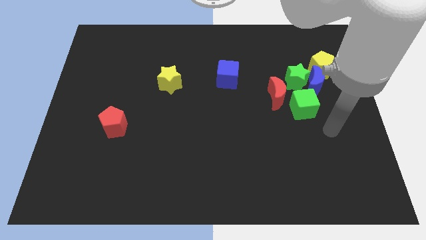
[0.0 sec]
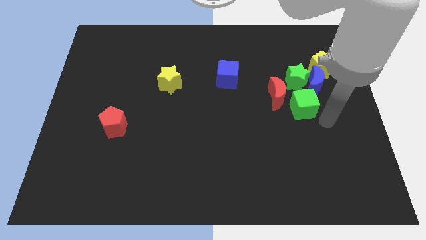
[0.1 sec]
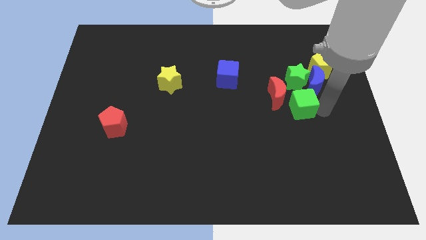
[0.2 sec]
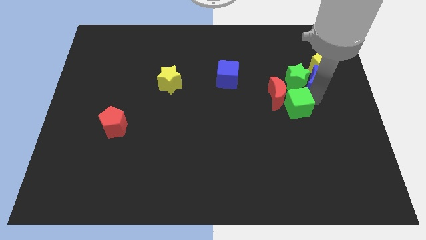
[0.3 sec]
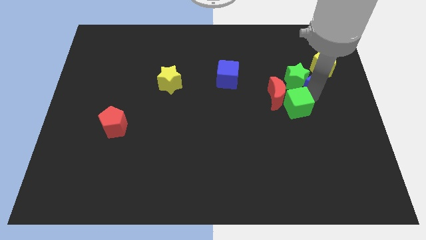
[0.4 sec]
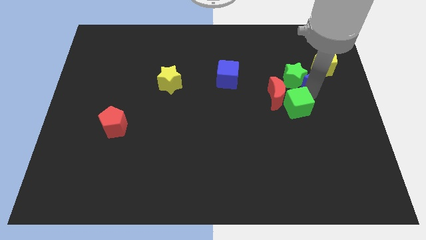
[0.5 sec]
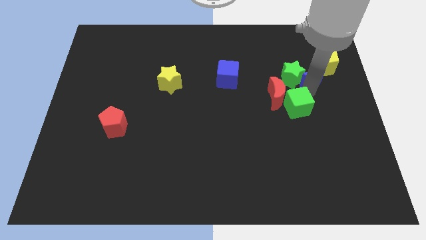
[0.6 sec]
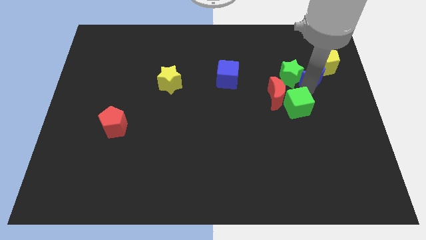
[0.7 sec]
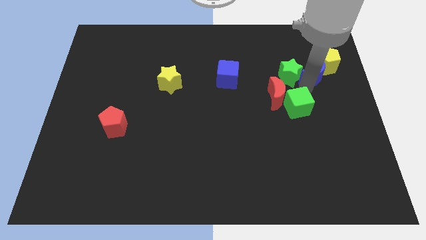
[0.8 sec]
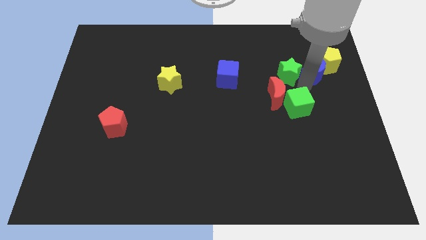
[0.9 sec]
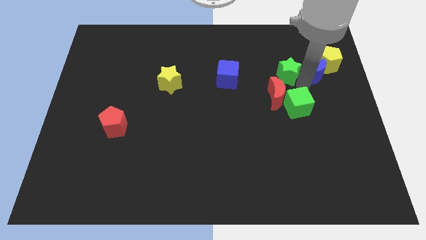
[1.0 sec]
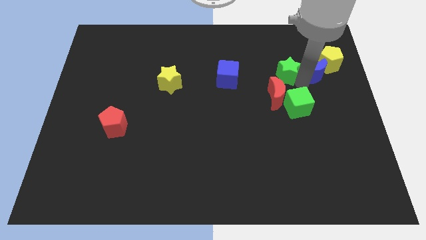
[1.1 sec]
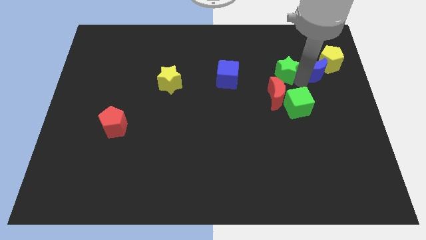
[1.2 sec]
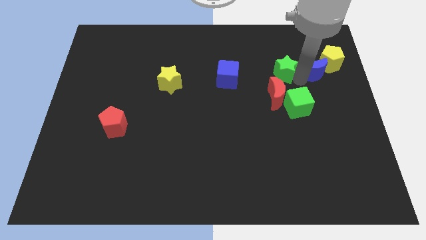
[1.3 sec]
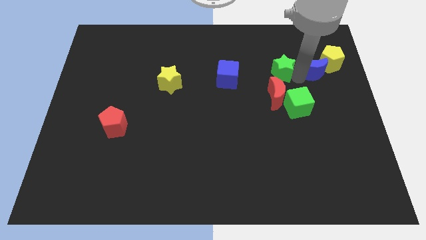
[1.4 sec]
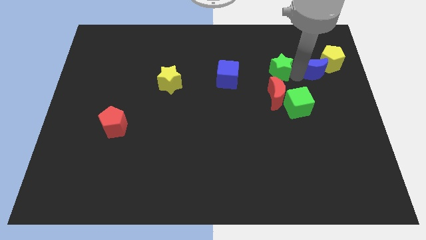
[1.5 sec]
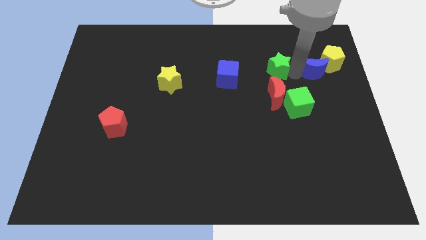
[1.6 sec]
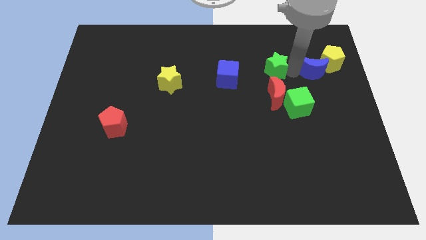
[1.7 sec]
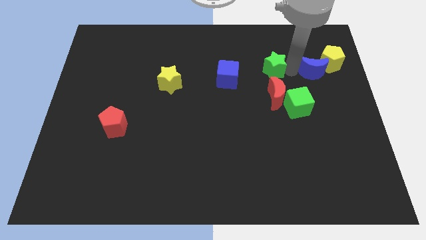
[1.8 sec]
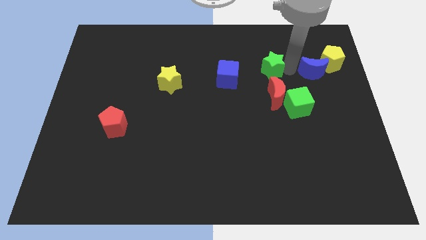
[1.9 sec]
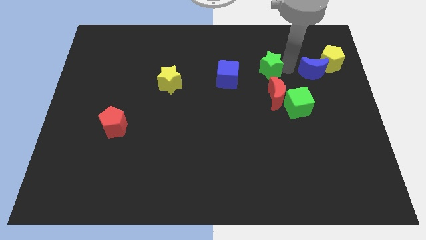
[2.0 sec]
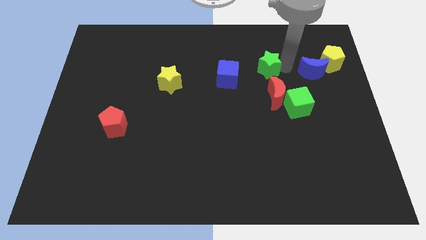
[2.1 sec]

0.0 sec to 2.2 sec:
separate the green star from the clump

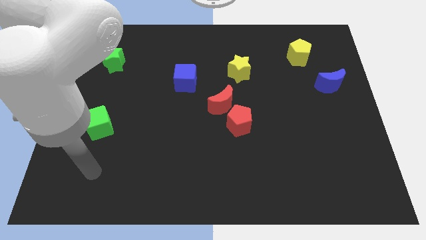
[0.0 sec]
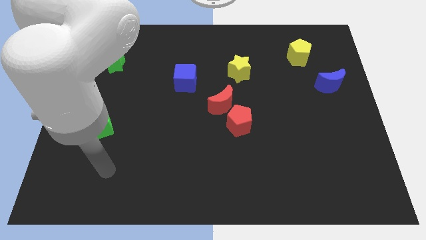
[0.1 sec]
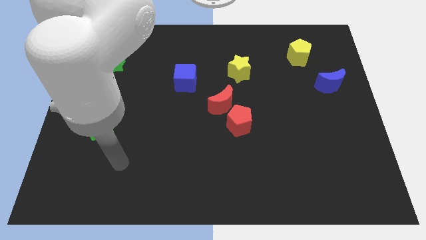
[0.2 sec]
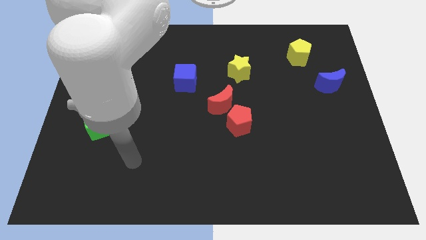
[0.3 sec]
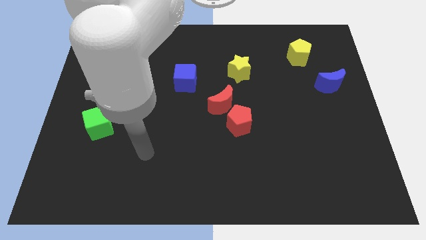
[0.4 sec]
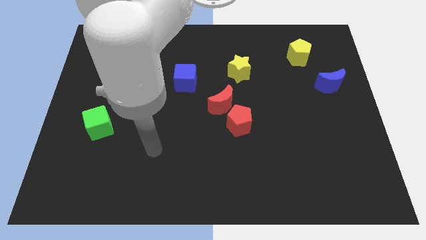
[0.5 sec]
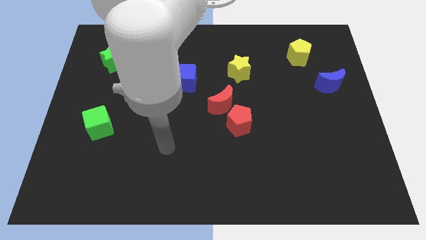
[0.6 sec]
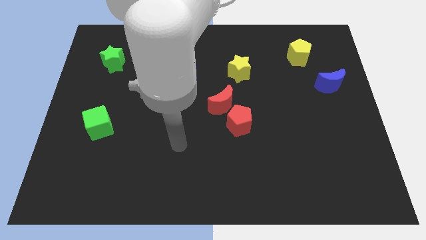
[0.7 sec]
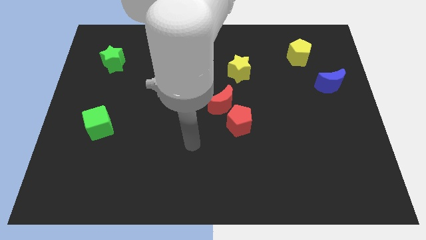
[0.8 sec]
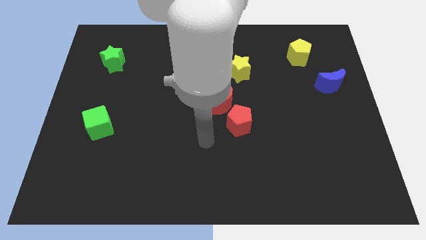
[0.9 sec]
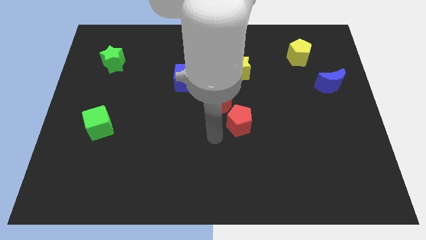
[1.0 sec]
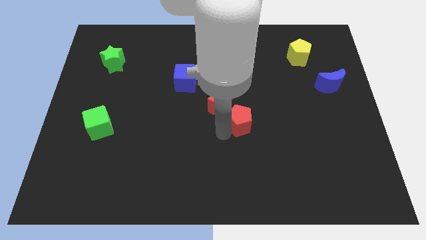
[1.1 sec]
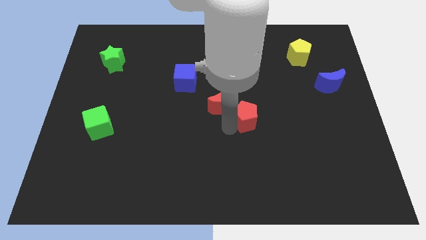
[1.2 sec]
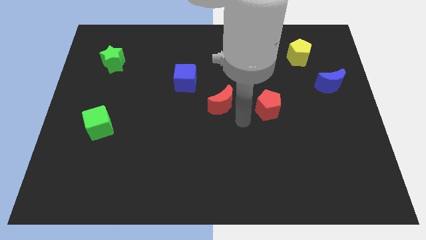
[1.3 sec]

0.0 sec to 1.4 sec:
separate the red moon from the red pentagon

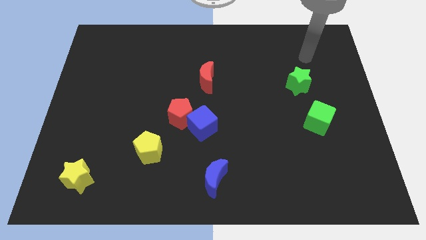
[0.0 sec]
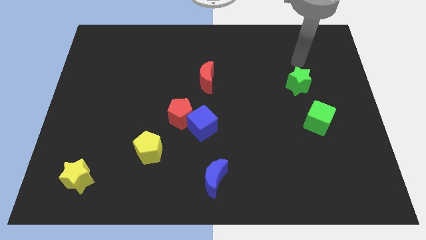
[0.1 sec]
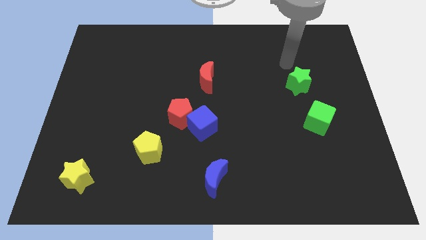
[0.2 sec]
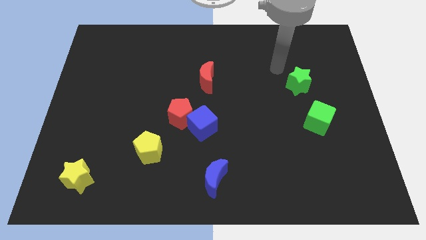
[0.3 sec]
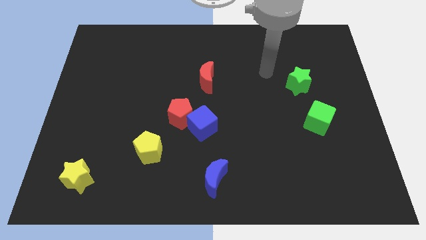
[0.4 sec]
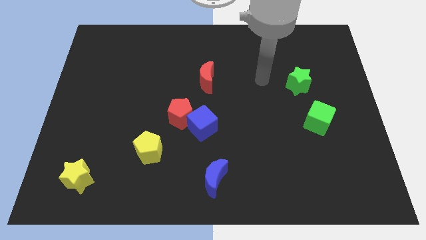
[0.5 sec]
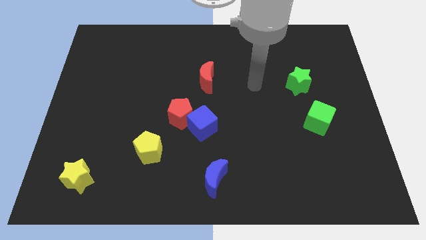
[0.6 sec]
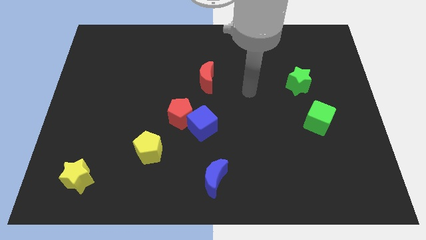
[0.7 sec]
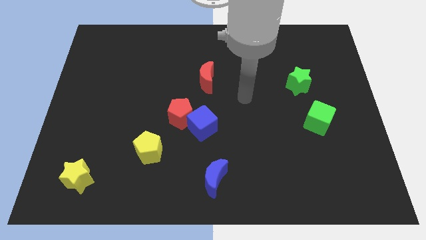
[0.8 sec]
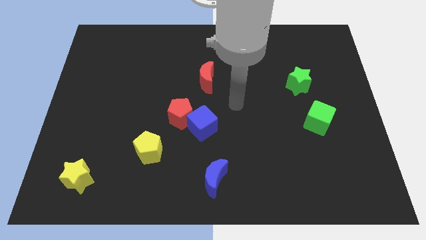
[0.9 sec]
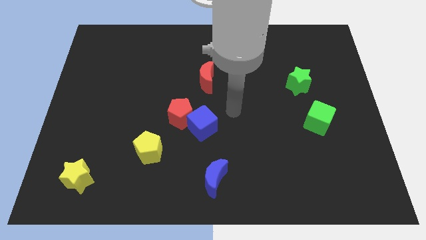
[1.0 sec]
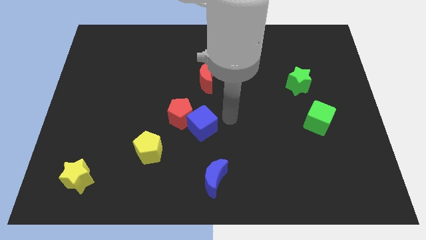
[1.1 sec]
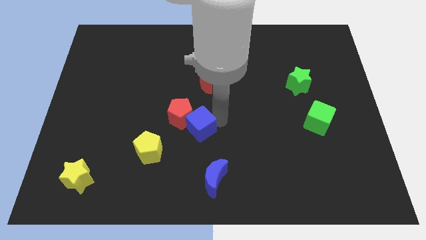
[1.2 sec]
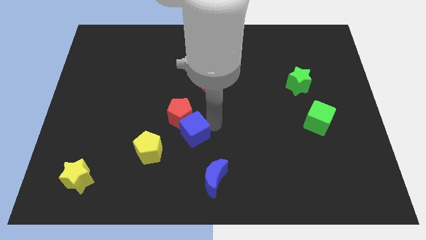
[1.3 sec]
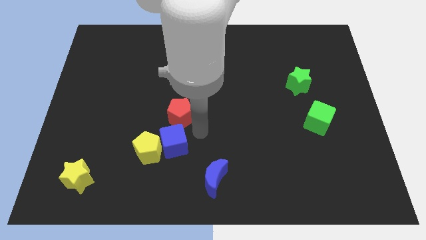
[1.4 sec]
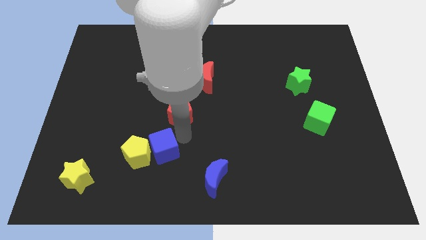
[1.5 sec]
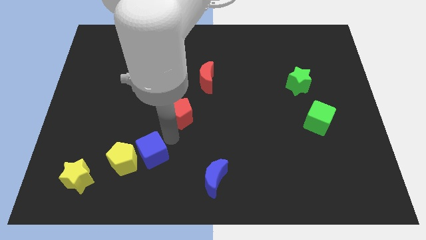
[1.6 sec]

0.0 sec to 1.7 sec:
separate the red pentagon from the blue cube

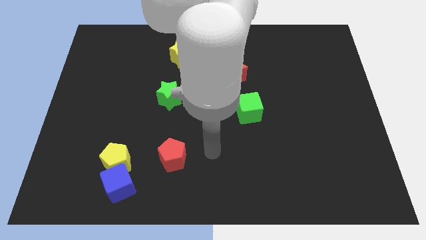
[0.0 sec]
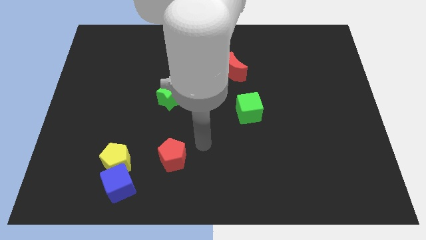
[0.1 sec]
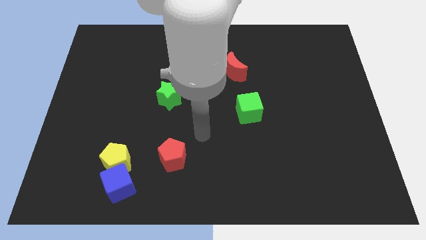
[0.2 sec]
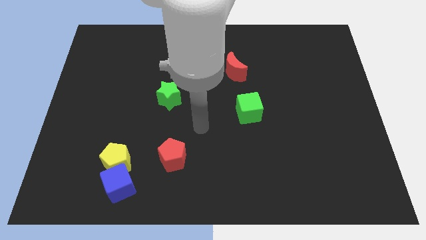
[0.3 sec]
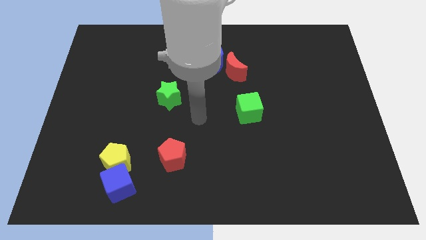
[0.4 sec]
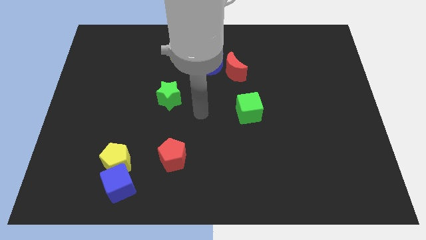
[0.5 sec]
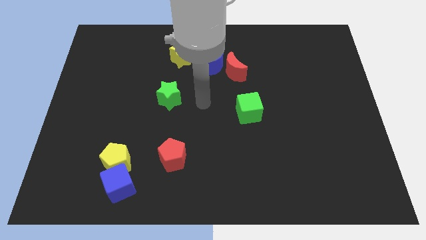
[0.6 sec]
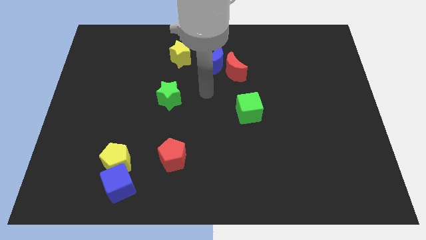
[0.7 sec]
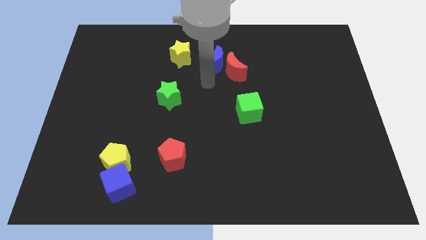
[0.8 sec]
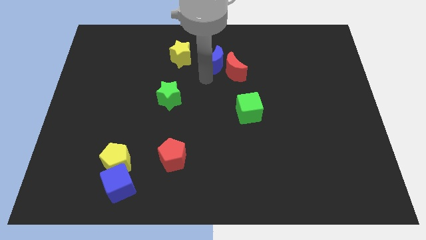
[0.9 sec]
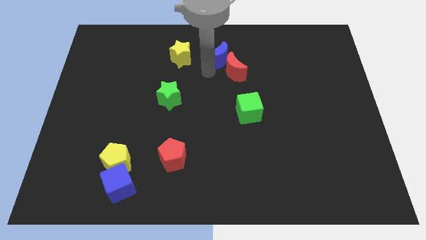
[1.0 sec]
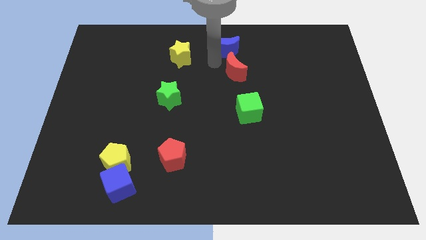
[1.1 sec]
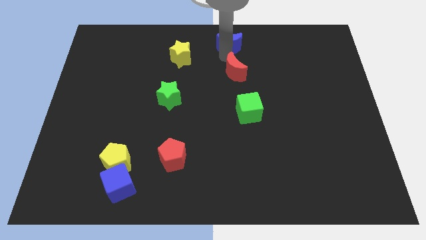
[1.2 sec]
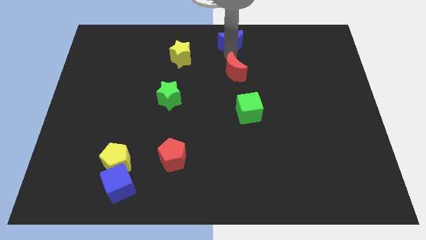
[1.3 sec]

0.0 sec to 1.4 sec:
pull the red moon apart from the blue moon

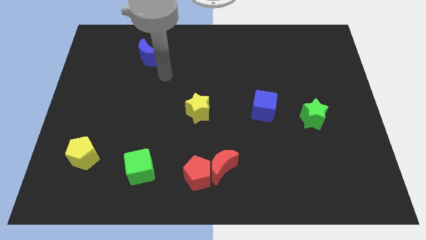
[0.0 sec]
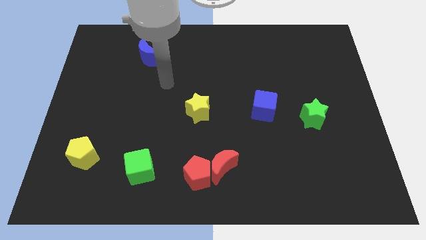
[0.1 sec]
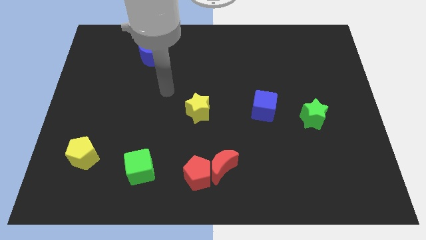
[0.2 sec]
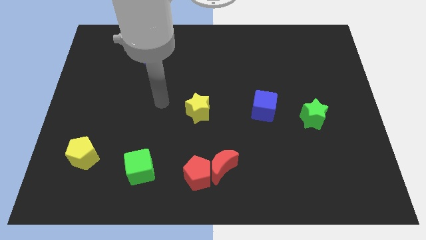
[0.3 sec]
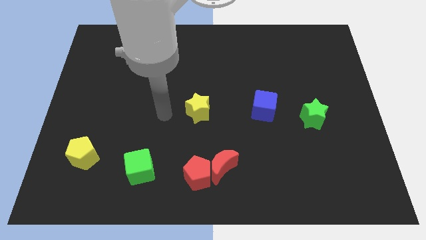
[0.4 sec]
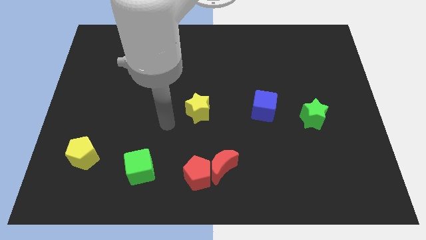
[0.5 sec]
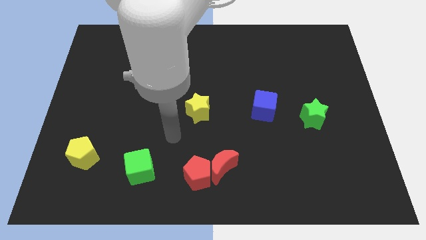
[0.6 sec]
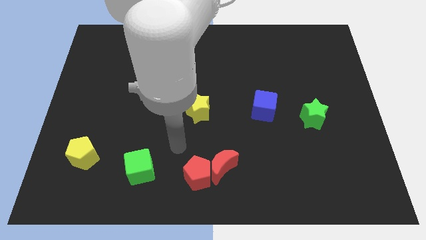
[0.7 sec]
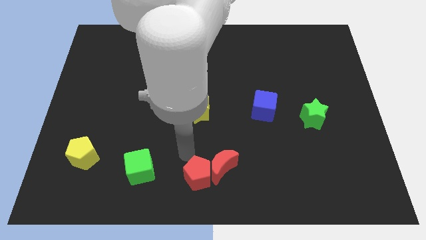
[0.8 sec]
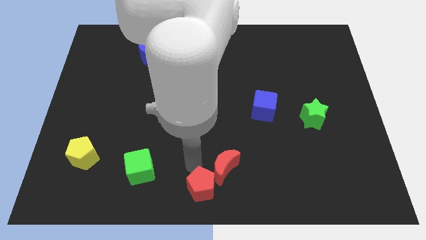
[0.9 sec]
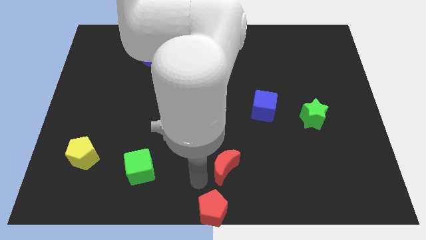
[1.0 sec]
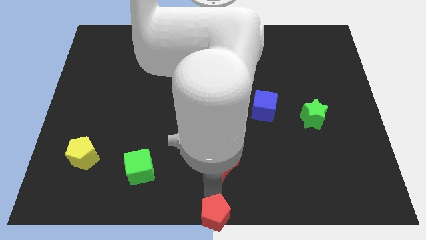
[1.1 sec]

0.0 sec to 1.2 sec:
pull the red moon apart from the red pentagon

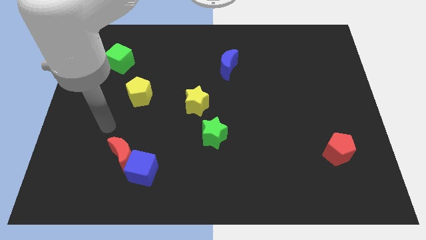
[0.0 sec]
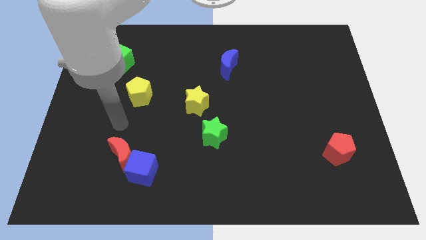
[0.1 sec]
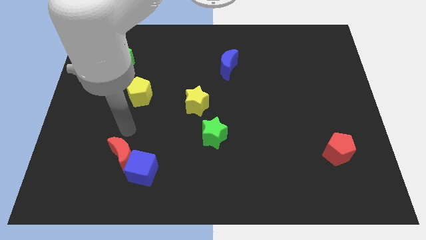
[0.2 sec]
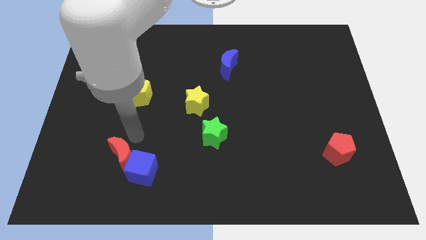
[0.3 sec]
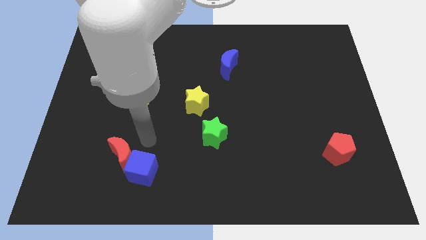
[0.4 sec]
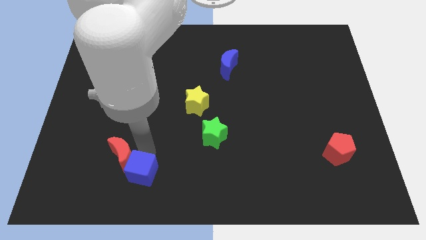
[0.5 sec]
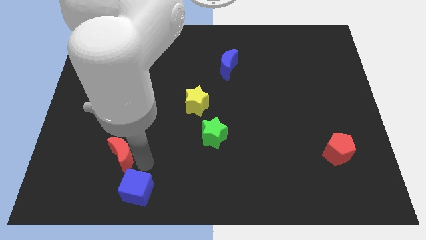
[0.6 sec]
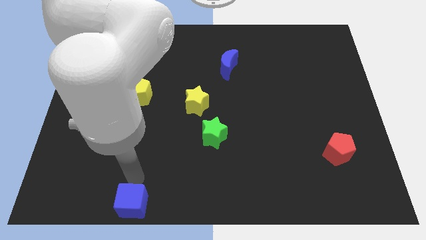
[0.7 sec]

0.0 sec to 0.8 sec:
pull the red moon apart from the blue cube

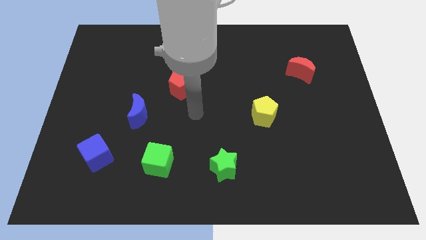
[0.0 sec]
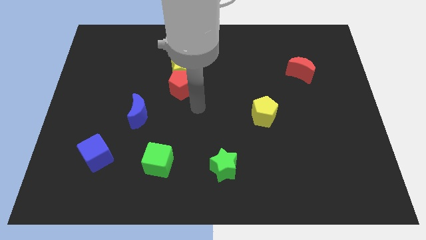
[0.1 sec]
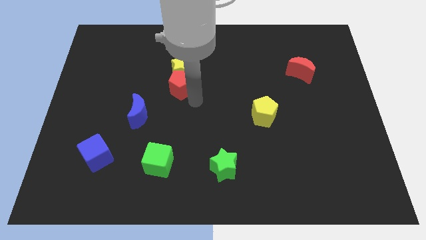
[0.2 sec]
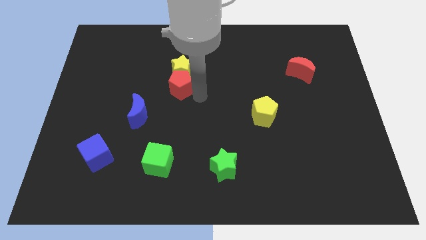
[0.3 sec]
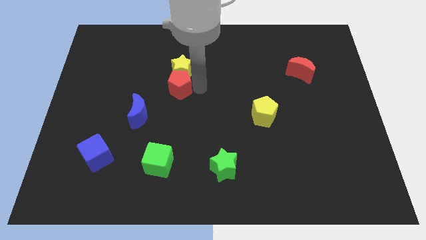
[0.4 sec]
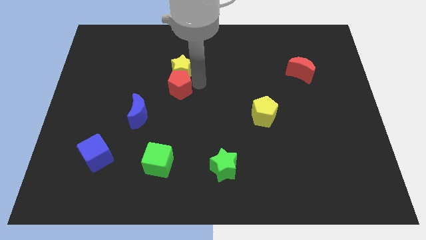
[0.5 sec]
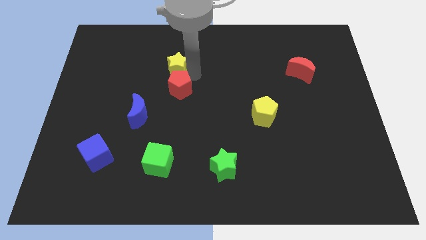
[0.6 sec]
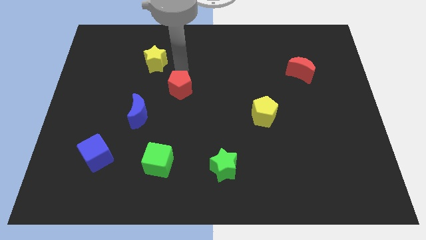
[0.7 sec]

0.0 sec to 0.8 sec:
move the red pentagon away from the yellow star
